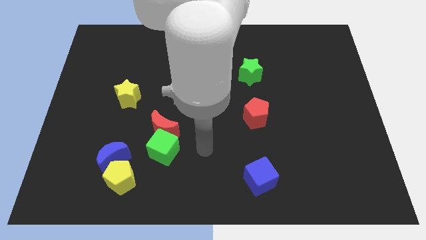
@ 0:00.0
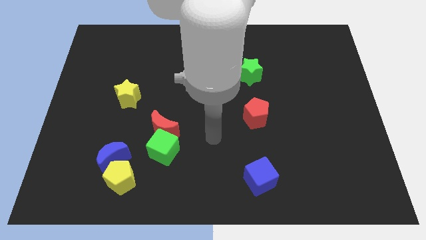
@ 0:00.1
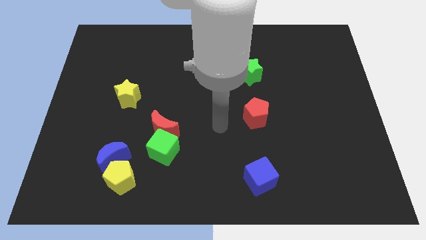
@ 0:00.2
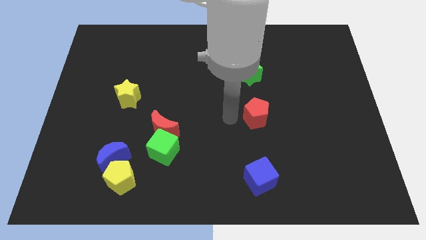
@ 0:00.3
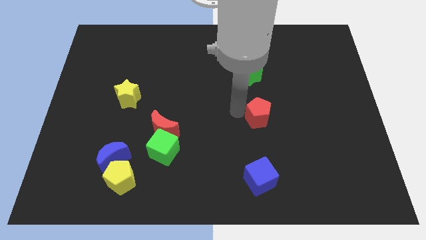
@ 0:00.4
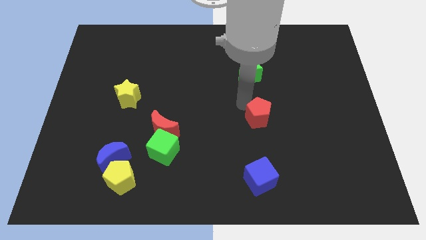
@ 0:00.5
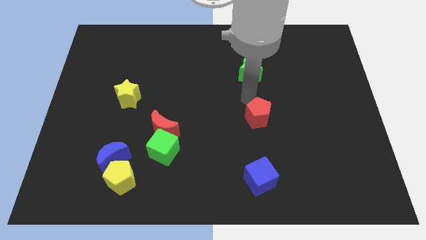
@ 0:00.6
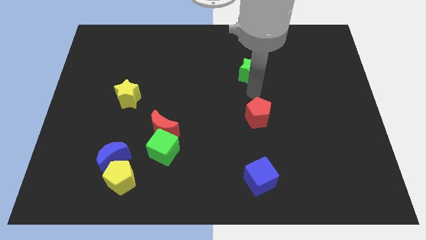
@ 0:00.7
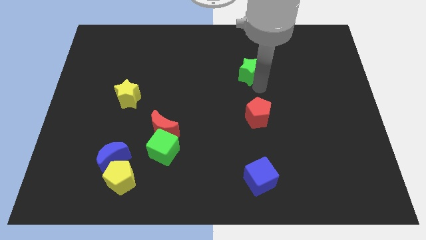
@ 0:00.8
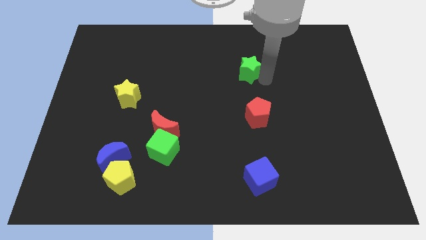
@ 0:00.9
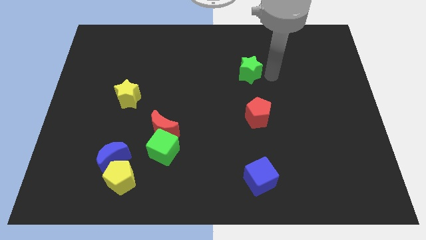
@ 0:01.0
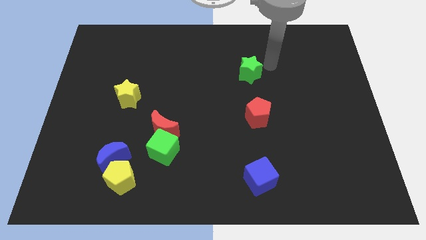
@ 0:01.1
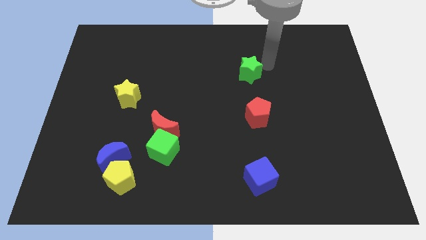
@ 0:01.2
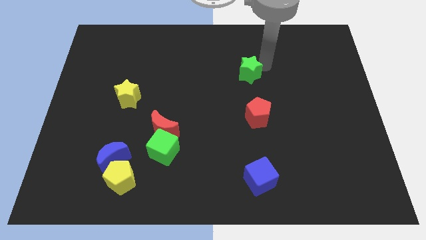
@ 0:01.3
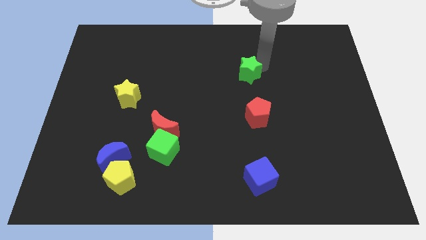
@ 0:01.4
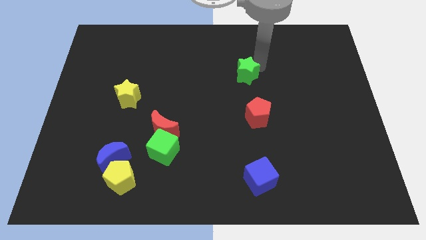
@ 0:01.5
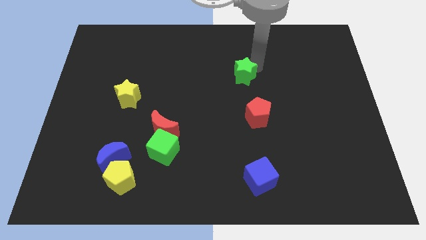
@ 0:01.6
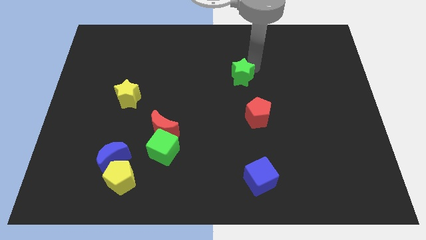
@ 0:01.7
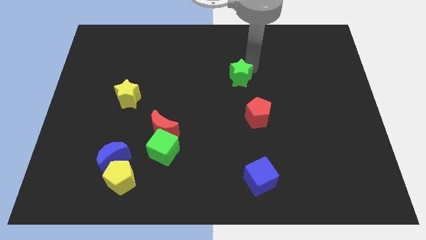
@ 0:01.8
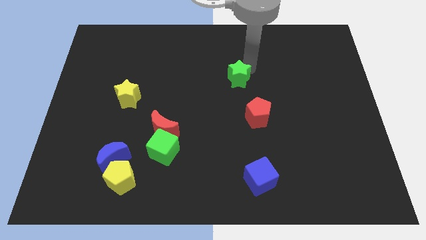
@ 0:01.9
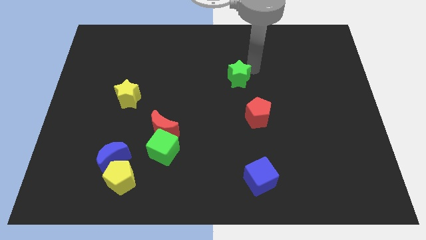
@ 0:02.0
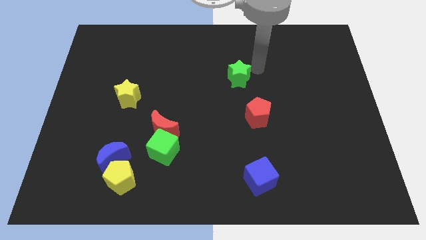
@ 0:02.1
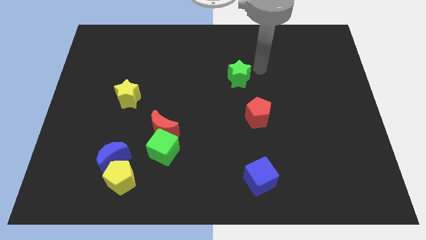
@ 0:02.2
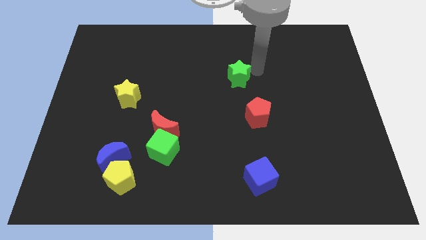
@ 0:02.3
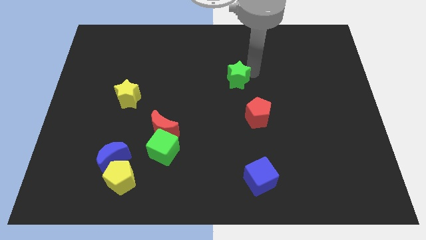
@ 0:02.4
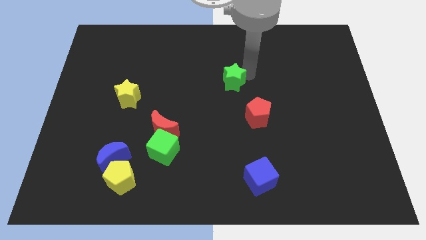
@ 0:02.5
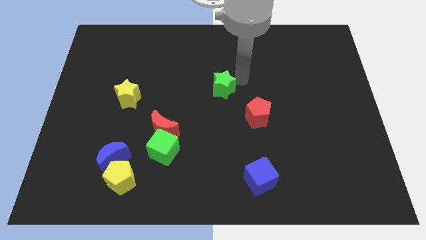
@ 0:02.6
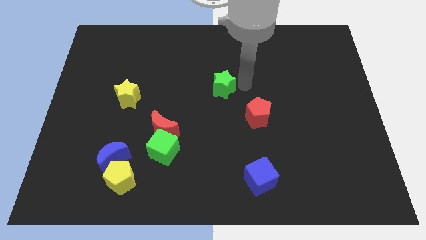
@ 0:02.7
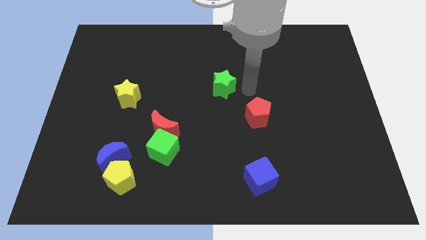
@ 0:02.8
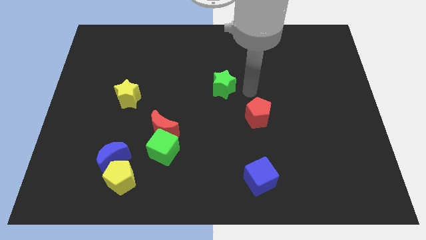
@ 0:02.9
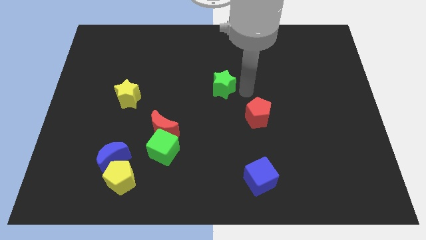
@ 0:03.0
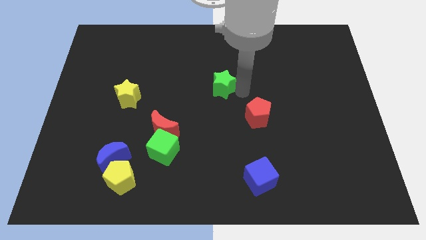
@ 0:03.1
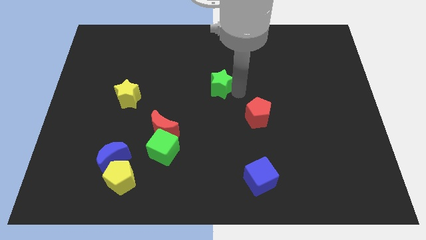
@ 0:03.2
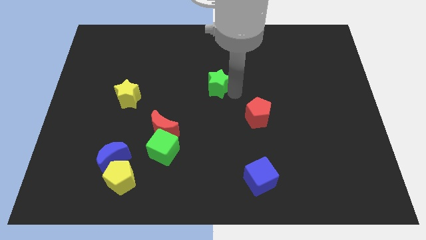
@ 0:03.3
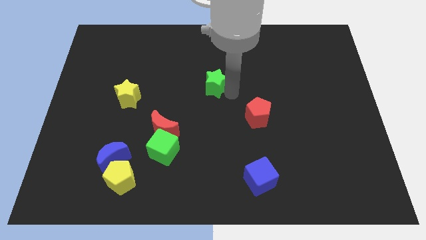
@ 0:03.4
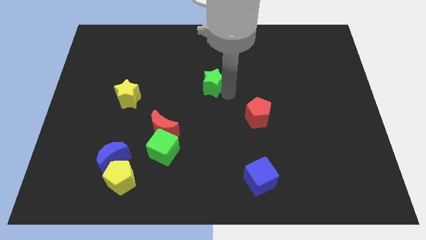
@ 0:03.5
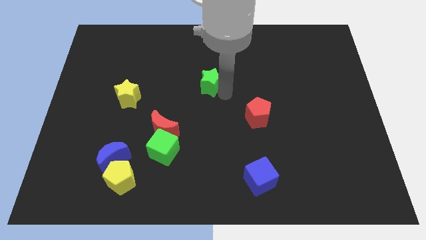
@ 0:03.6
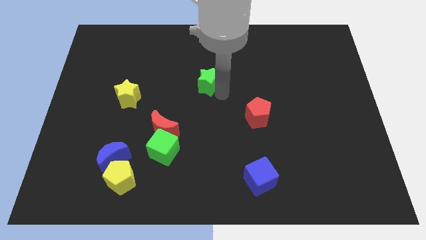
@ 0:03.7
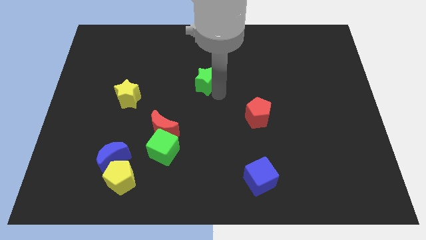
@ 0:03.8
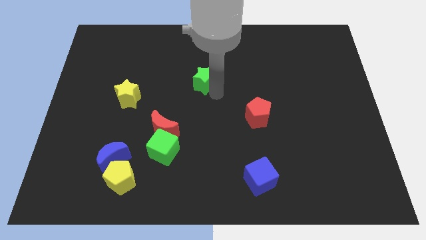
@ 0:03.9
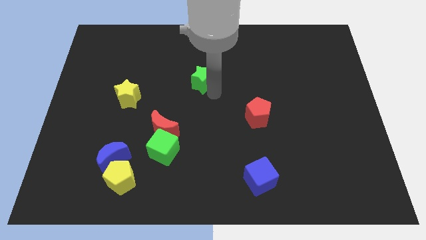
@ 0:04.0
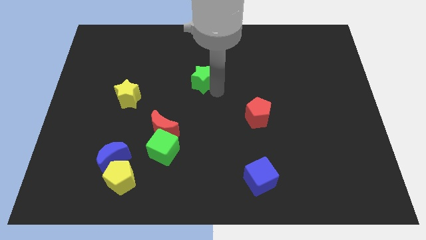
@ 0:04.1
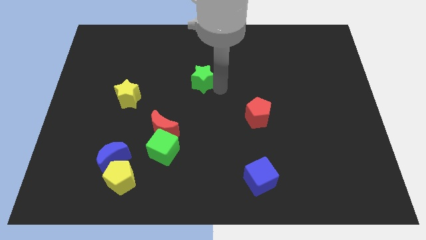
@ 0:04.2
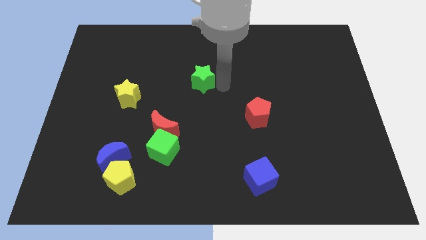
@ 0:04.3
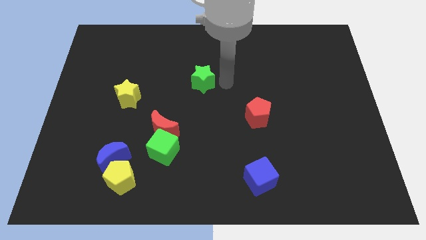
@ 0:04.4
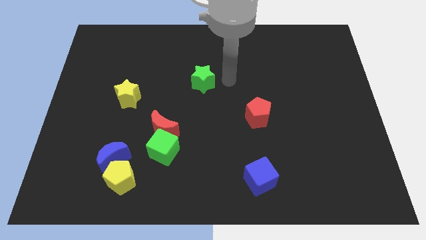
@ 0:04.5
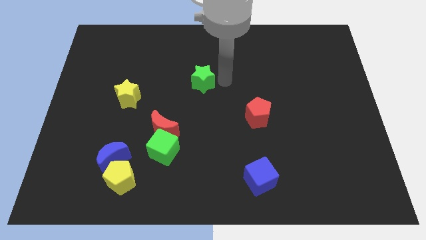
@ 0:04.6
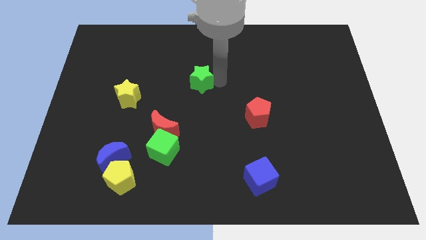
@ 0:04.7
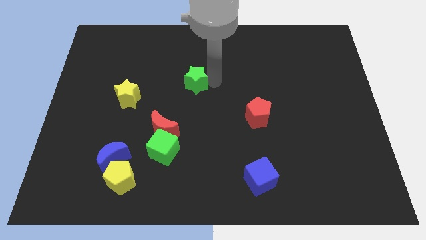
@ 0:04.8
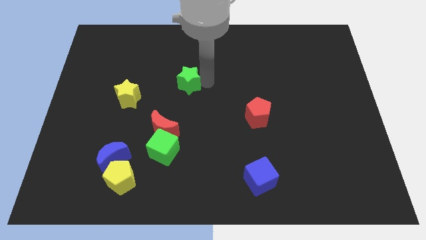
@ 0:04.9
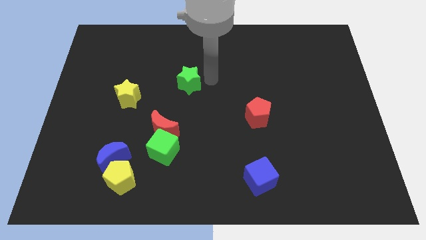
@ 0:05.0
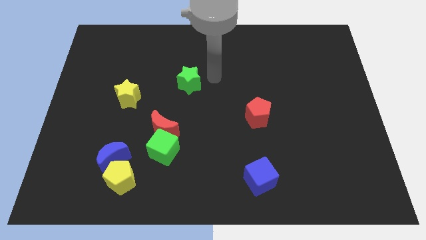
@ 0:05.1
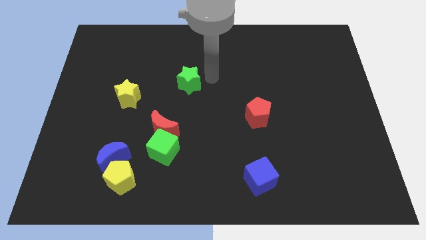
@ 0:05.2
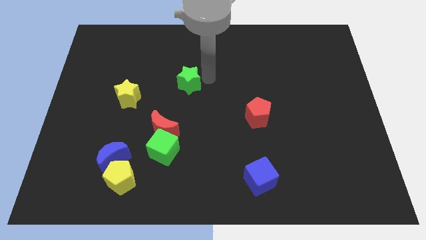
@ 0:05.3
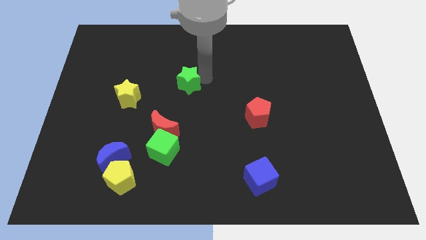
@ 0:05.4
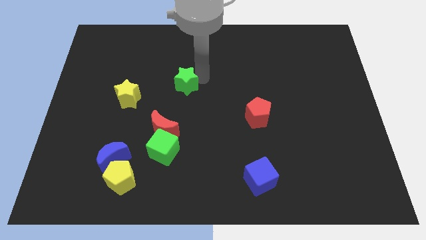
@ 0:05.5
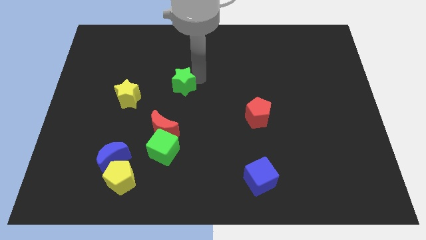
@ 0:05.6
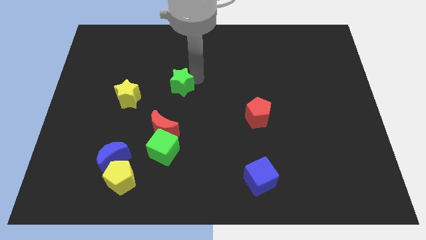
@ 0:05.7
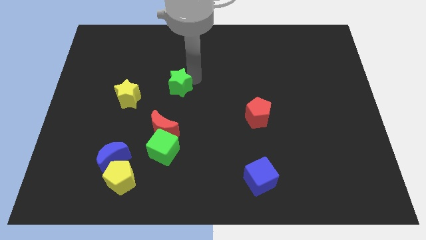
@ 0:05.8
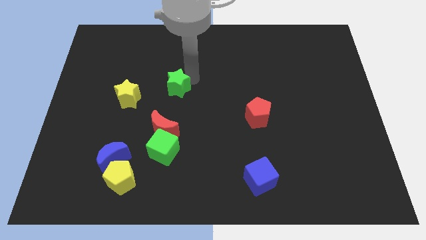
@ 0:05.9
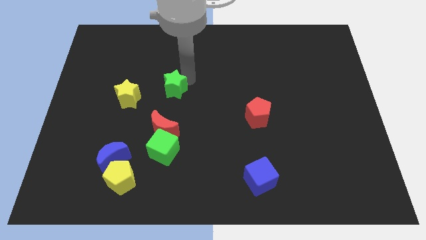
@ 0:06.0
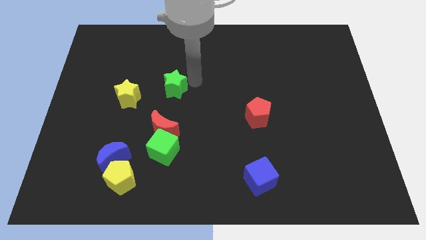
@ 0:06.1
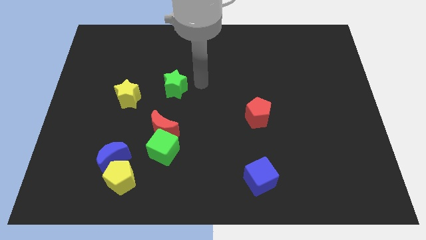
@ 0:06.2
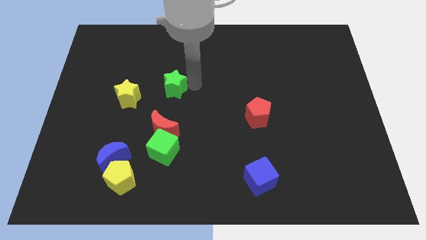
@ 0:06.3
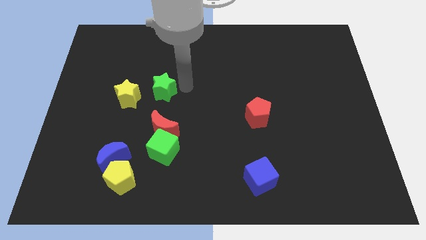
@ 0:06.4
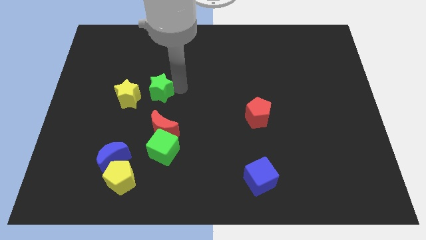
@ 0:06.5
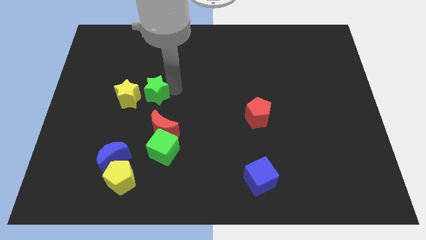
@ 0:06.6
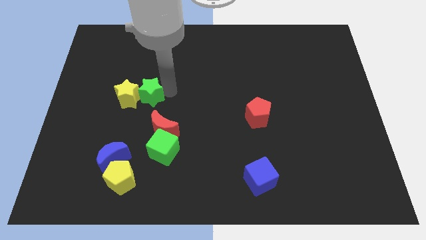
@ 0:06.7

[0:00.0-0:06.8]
put the green star next to the yellow star
